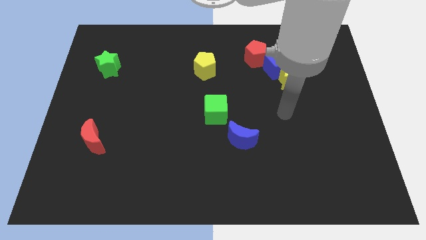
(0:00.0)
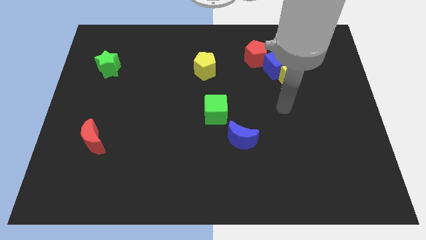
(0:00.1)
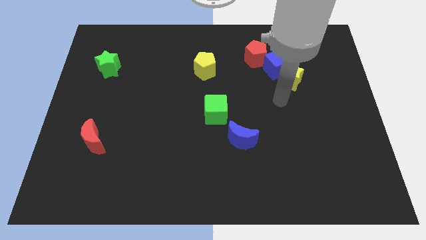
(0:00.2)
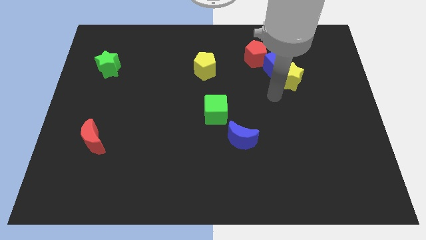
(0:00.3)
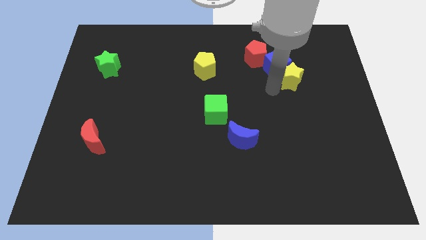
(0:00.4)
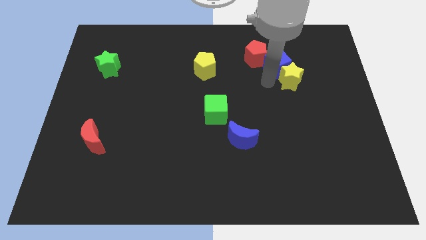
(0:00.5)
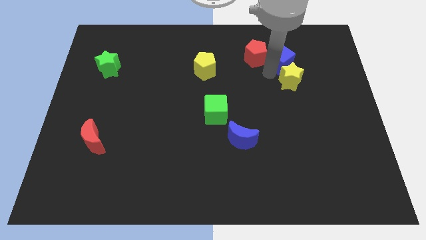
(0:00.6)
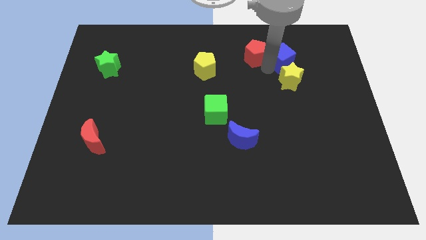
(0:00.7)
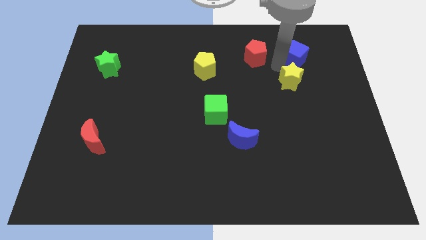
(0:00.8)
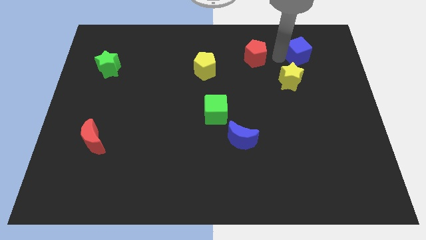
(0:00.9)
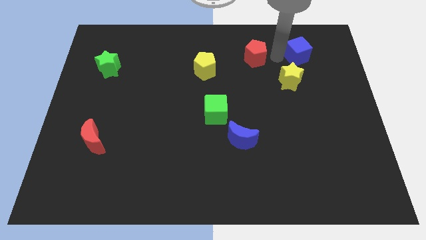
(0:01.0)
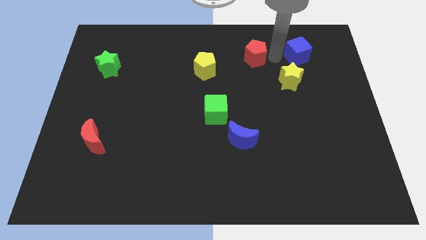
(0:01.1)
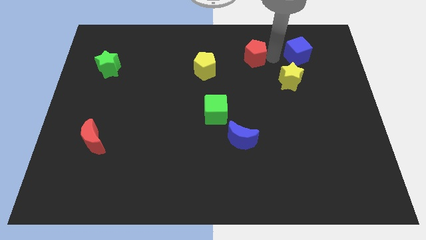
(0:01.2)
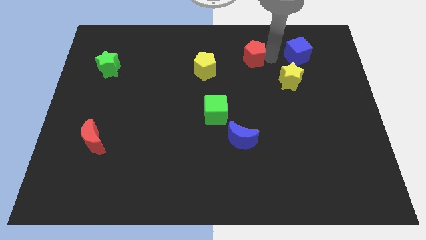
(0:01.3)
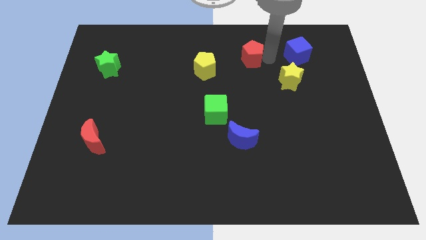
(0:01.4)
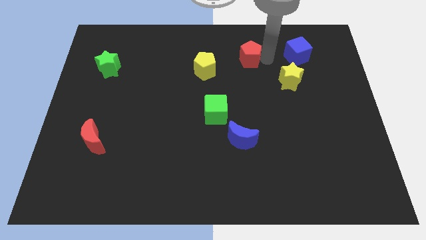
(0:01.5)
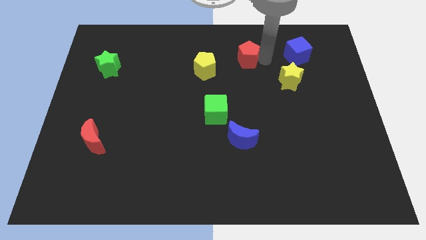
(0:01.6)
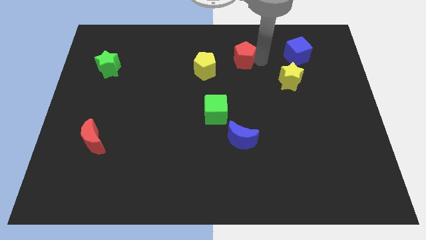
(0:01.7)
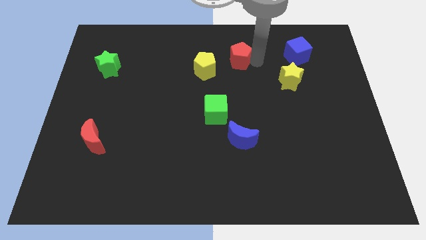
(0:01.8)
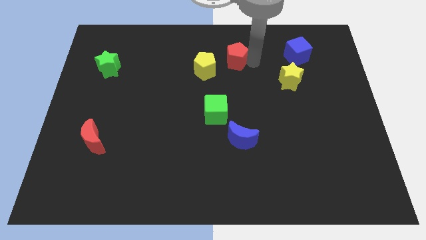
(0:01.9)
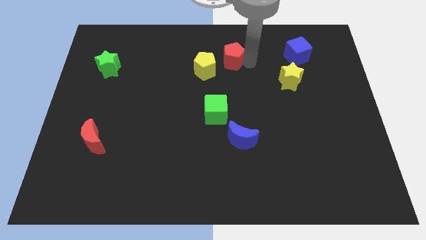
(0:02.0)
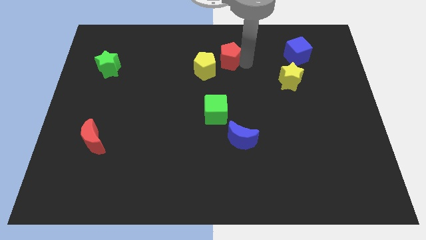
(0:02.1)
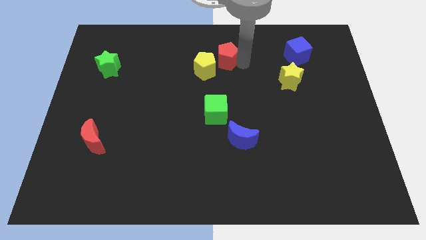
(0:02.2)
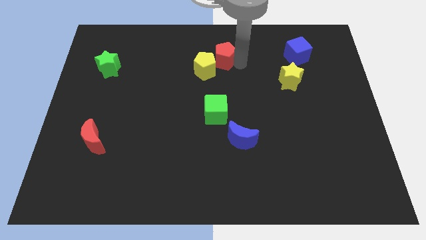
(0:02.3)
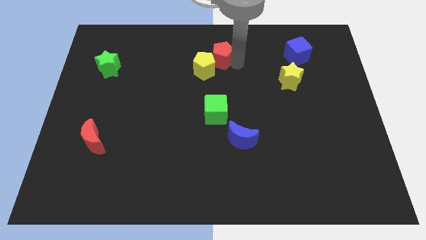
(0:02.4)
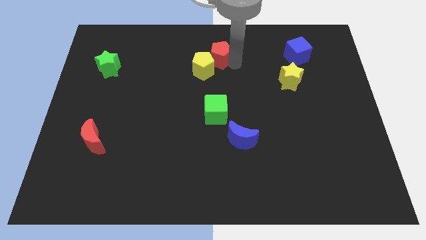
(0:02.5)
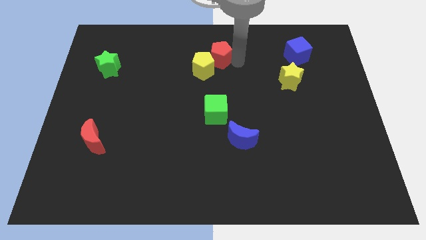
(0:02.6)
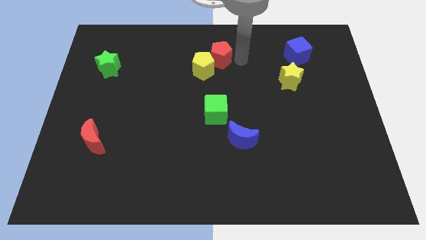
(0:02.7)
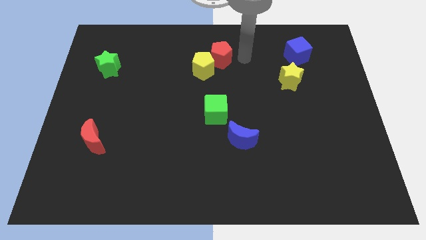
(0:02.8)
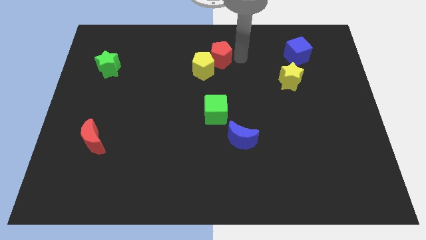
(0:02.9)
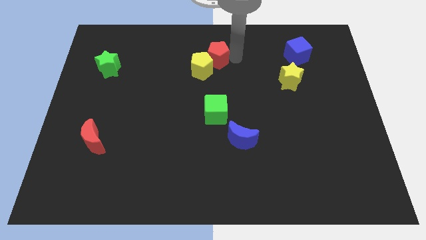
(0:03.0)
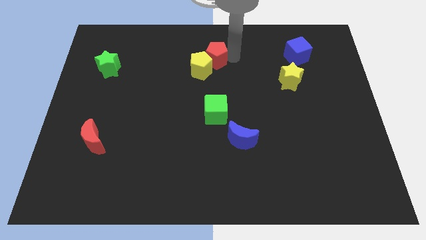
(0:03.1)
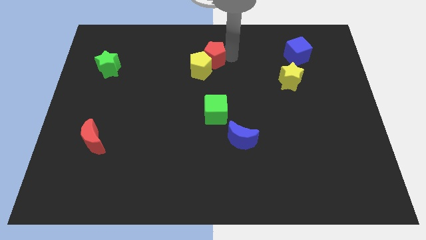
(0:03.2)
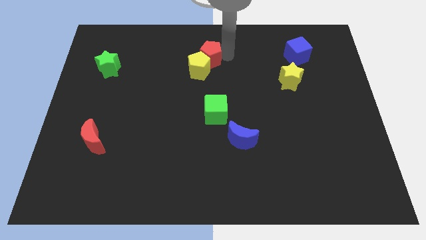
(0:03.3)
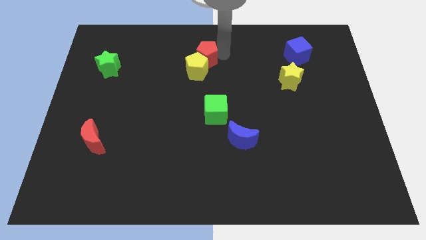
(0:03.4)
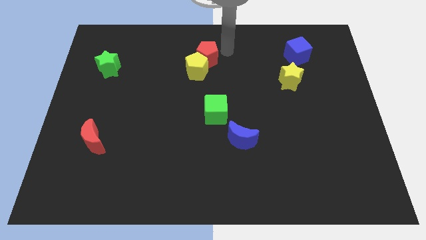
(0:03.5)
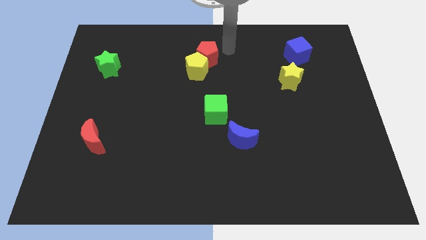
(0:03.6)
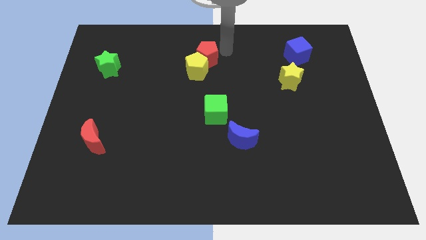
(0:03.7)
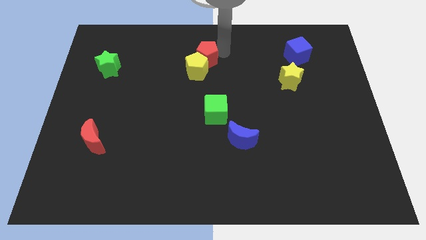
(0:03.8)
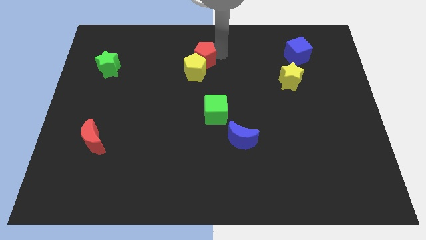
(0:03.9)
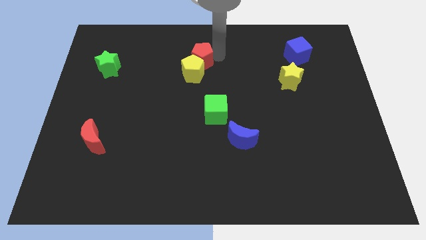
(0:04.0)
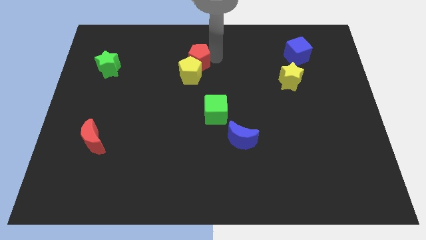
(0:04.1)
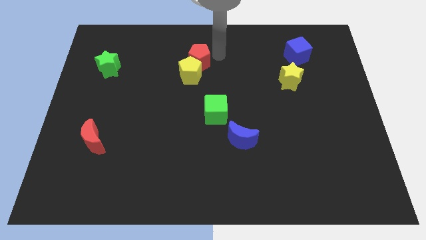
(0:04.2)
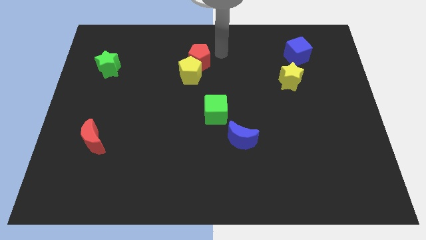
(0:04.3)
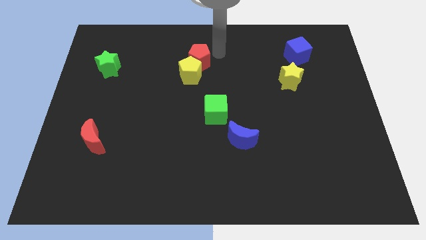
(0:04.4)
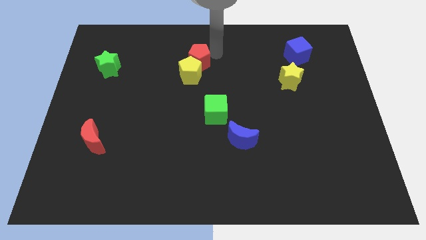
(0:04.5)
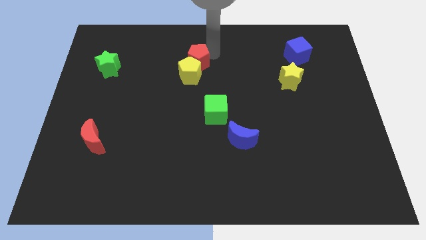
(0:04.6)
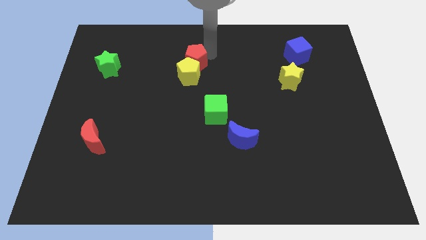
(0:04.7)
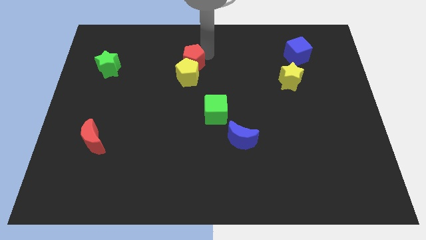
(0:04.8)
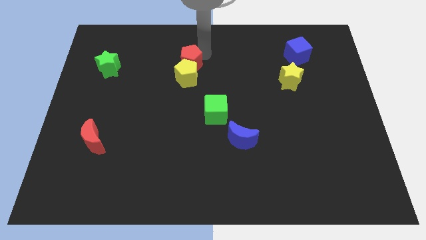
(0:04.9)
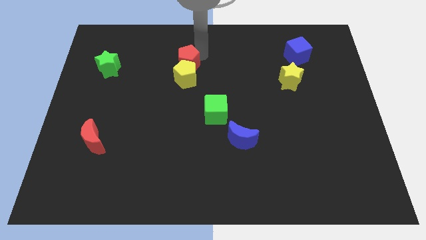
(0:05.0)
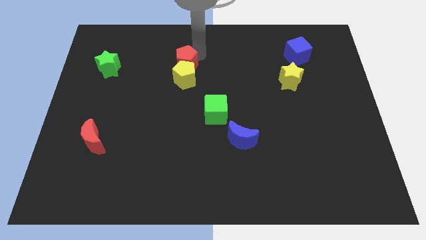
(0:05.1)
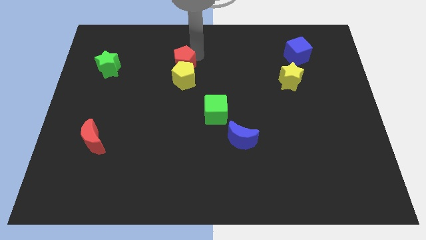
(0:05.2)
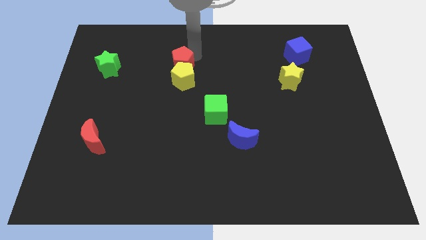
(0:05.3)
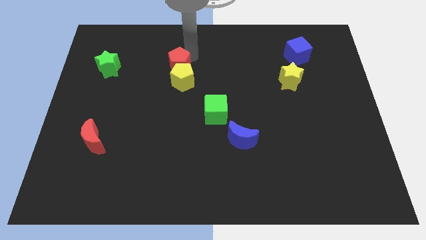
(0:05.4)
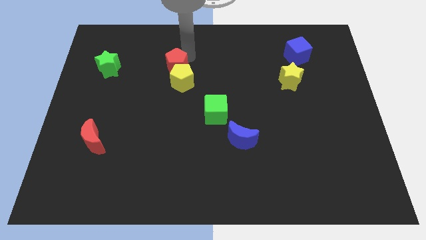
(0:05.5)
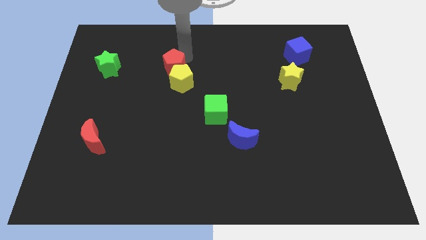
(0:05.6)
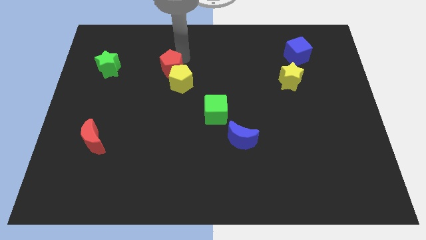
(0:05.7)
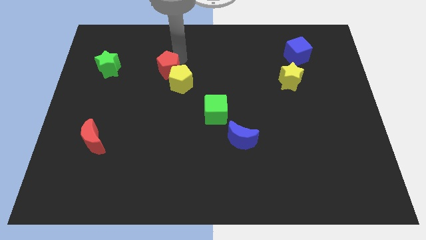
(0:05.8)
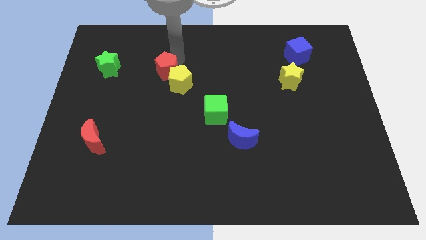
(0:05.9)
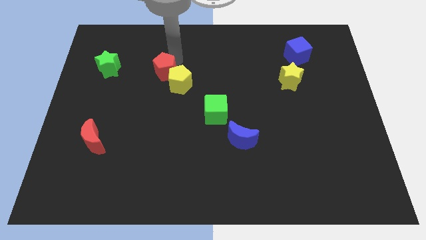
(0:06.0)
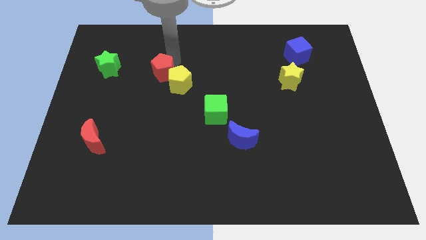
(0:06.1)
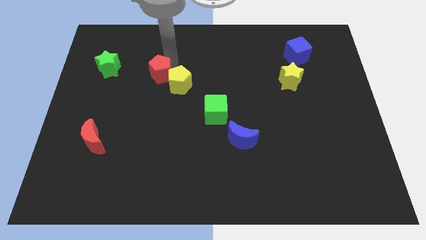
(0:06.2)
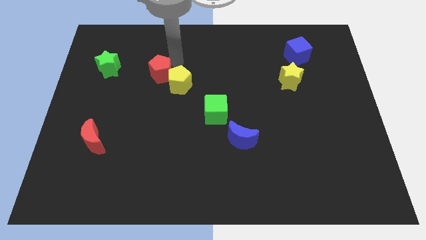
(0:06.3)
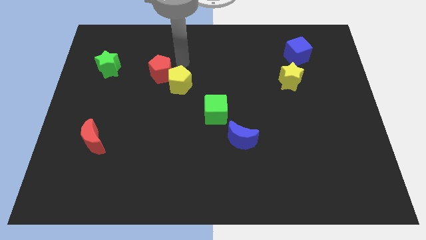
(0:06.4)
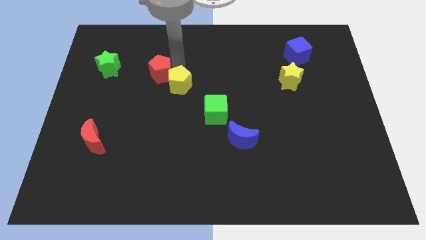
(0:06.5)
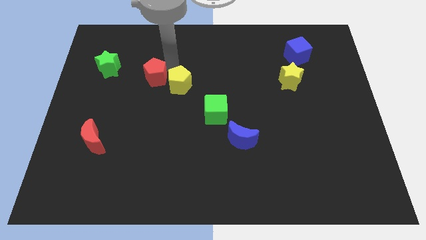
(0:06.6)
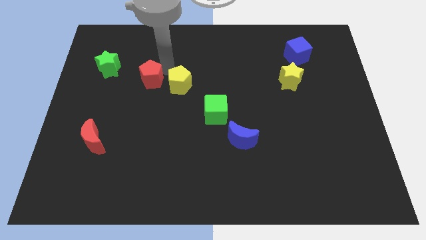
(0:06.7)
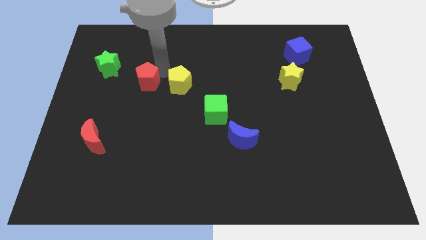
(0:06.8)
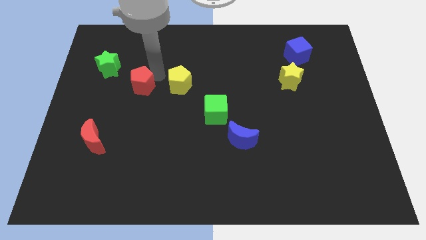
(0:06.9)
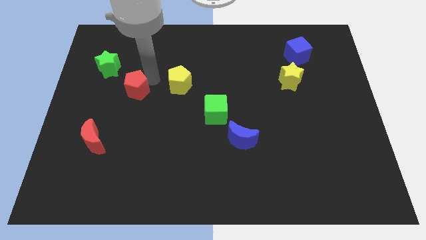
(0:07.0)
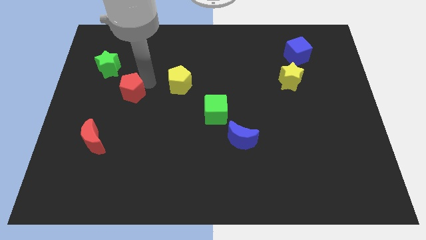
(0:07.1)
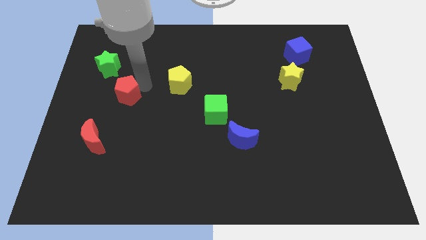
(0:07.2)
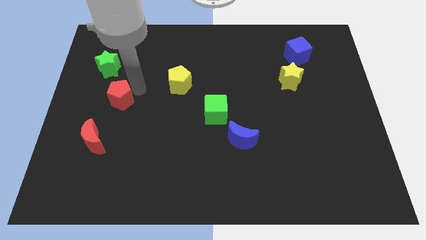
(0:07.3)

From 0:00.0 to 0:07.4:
move the red pentagon to the bottom of the green star
